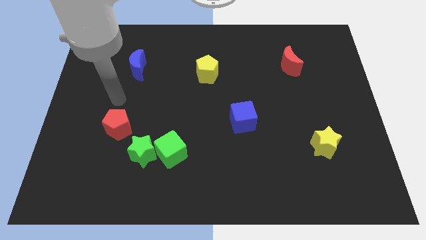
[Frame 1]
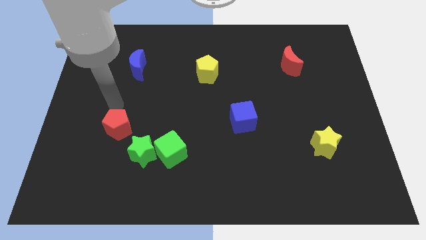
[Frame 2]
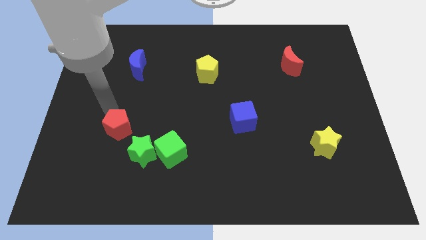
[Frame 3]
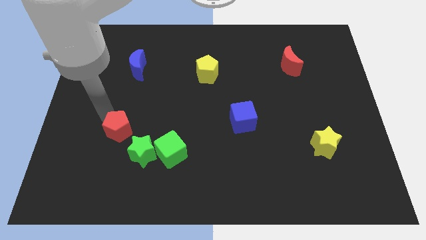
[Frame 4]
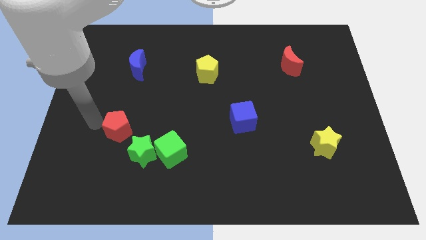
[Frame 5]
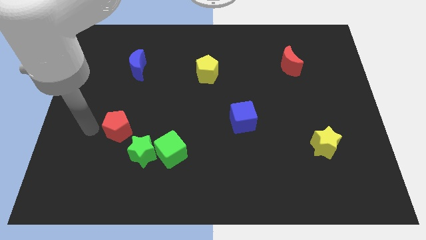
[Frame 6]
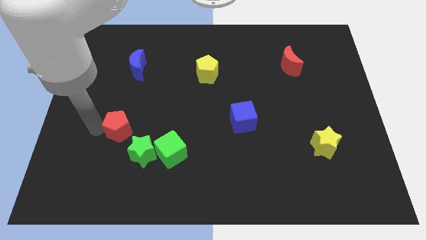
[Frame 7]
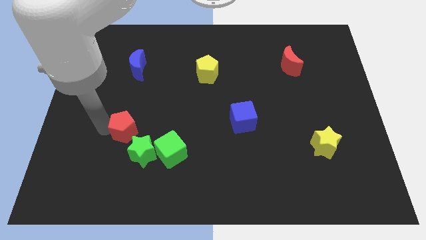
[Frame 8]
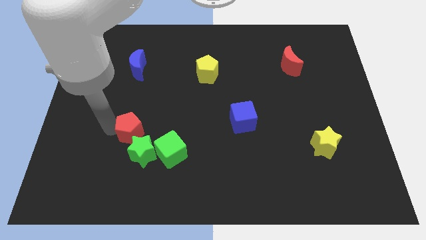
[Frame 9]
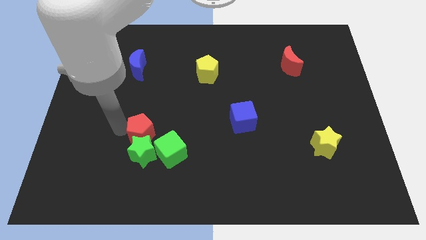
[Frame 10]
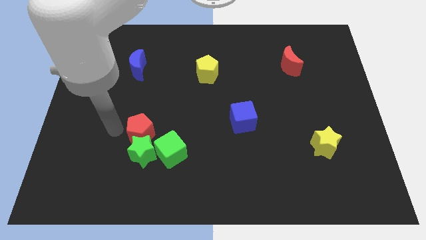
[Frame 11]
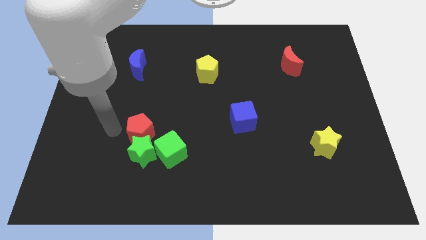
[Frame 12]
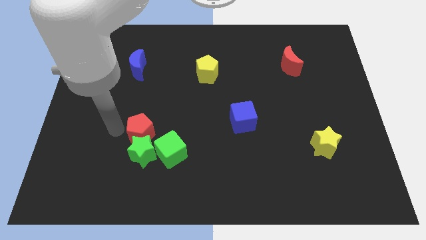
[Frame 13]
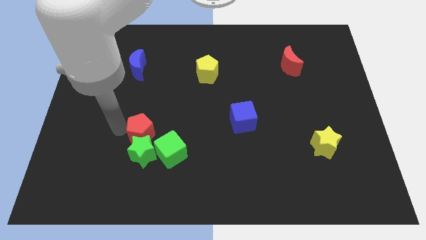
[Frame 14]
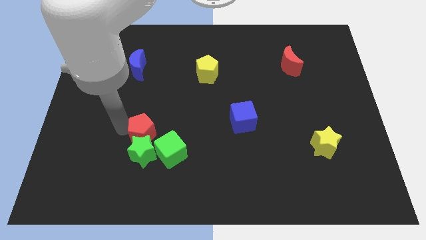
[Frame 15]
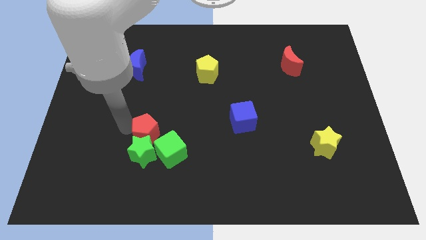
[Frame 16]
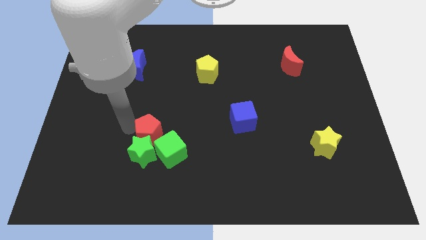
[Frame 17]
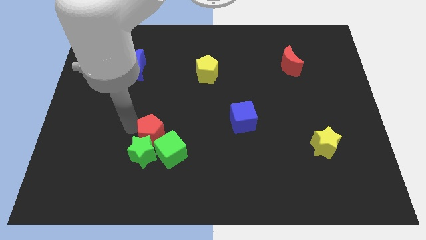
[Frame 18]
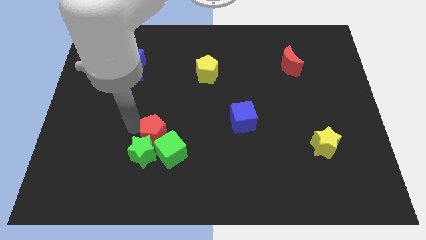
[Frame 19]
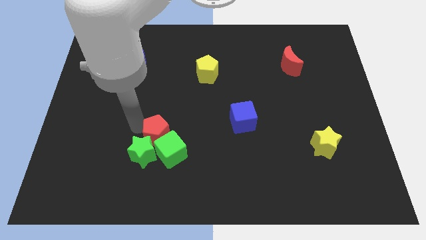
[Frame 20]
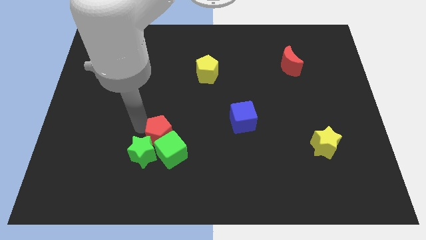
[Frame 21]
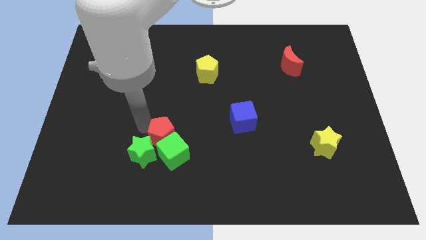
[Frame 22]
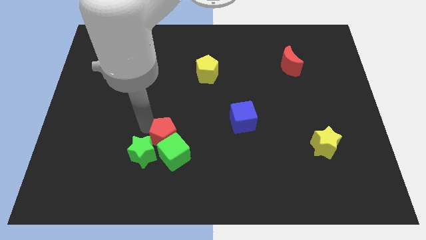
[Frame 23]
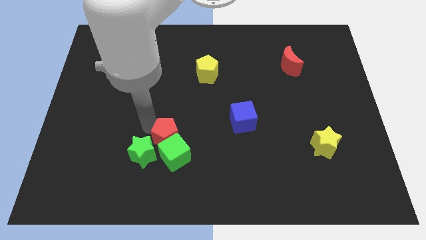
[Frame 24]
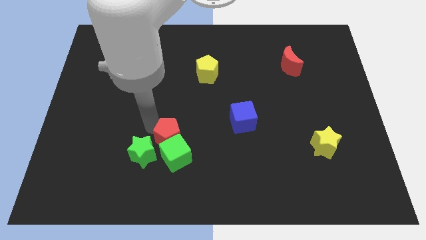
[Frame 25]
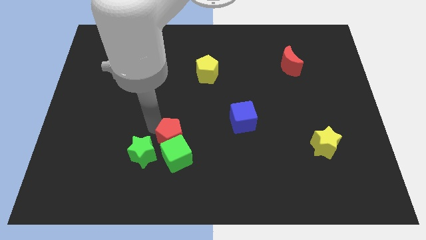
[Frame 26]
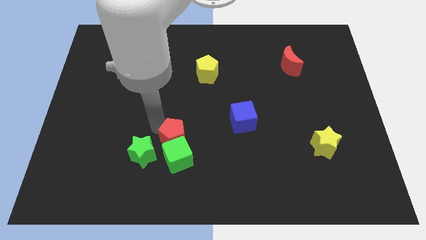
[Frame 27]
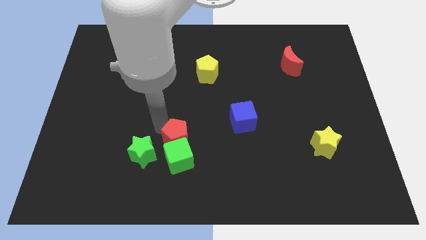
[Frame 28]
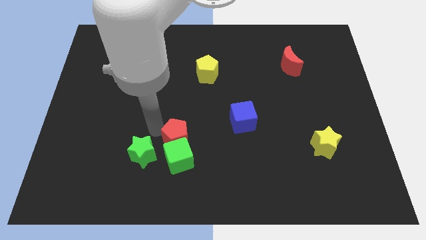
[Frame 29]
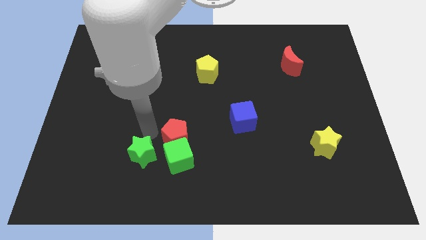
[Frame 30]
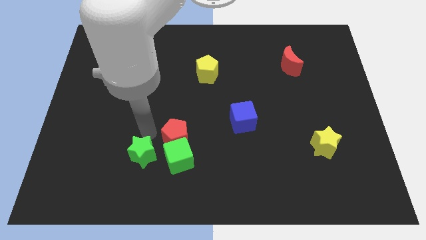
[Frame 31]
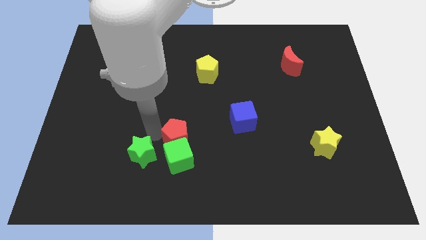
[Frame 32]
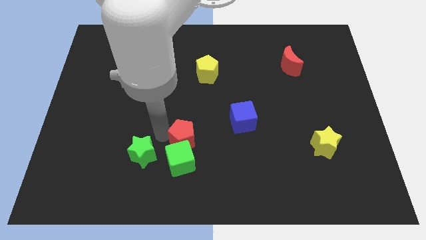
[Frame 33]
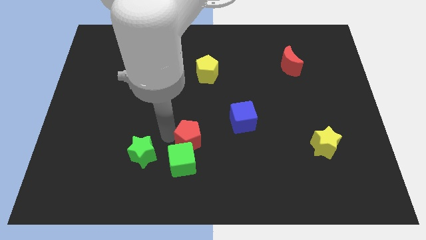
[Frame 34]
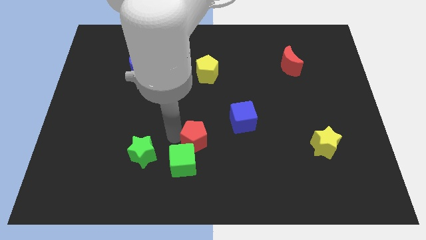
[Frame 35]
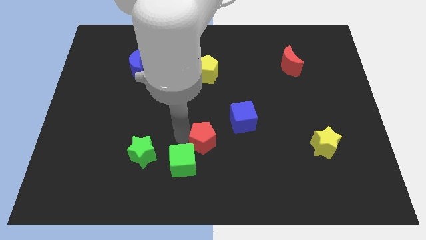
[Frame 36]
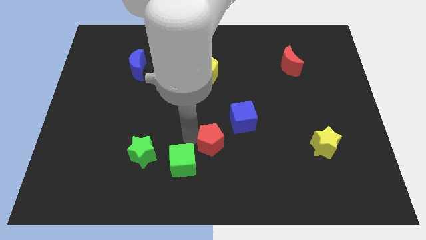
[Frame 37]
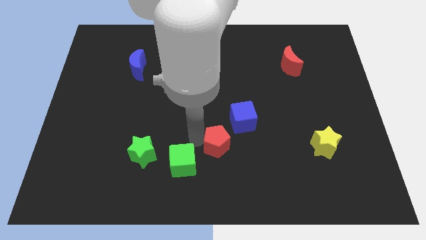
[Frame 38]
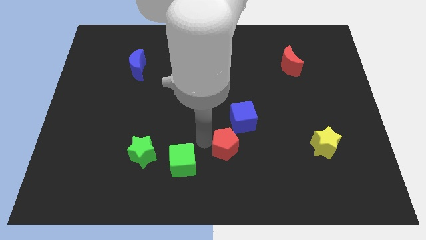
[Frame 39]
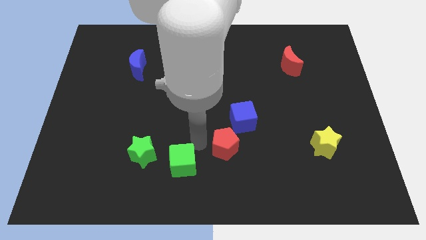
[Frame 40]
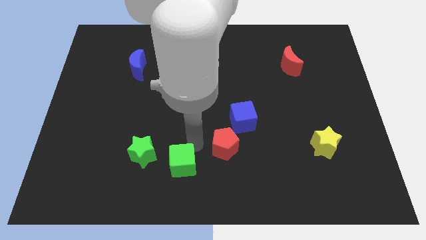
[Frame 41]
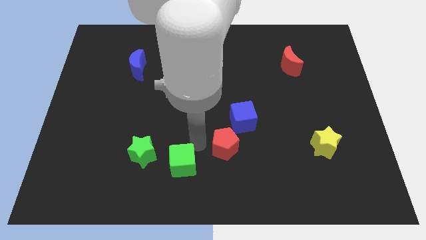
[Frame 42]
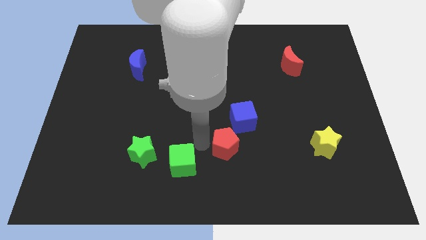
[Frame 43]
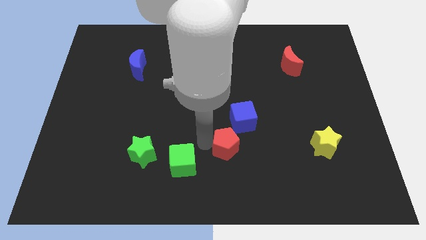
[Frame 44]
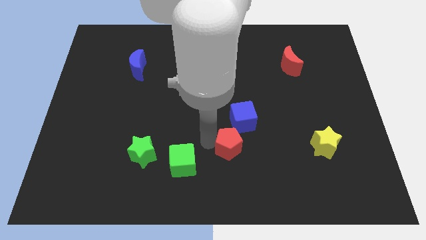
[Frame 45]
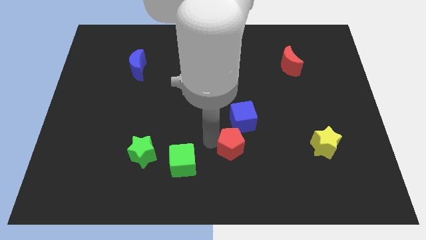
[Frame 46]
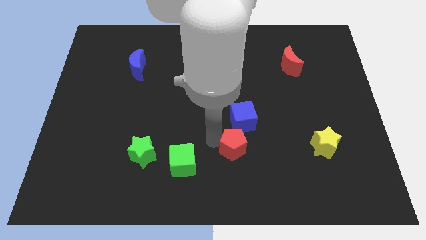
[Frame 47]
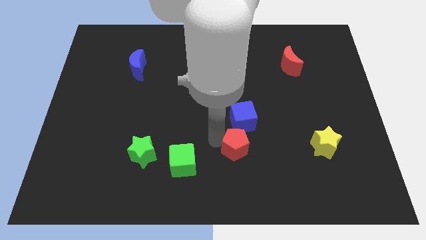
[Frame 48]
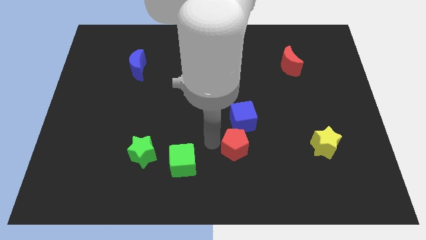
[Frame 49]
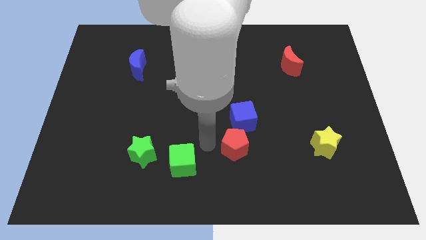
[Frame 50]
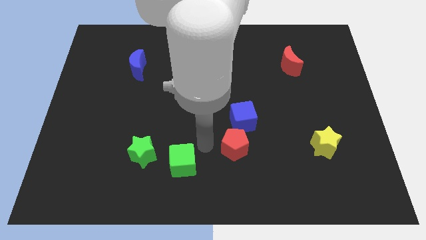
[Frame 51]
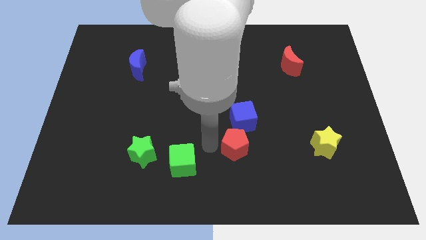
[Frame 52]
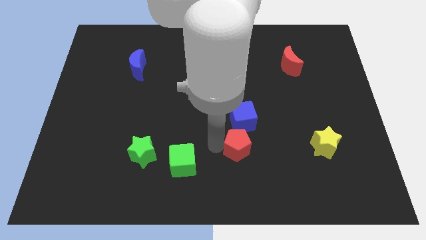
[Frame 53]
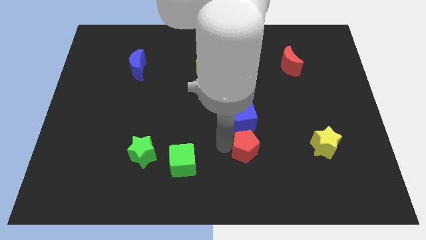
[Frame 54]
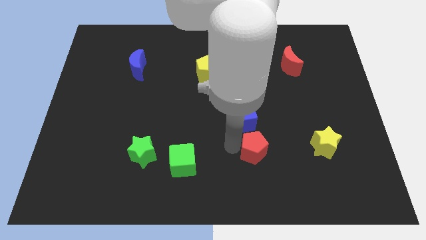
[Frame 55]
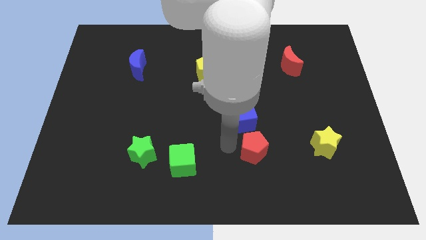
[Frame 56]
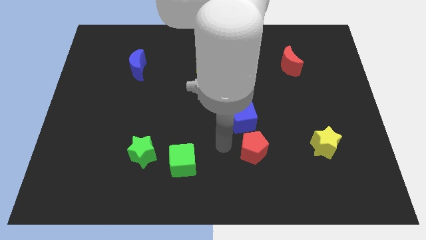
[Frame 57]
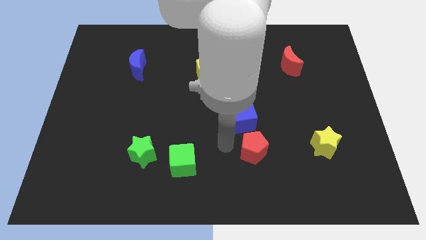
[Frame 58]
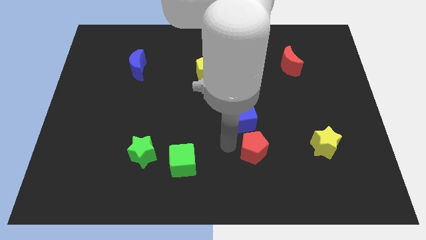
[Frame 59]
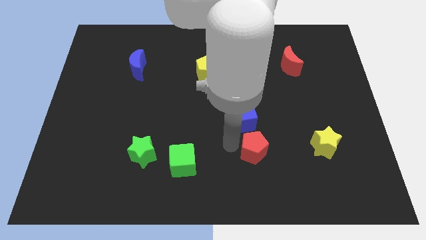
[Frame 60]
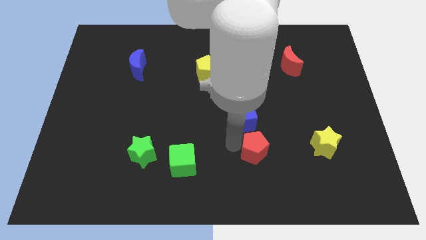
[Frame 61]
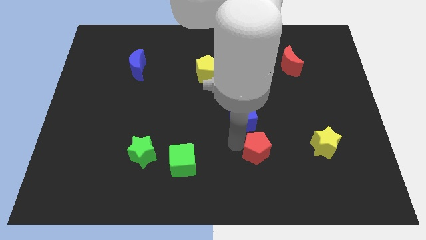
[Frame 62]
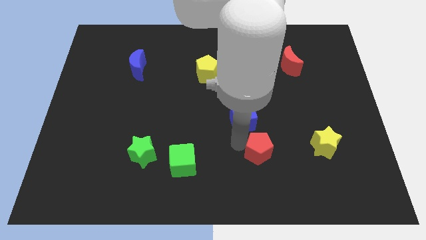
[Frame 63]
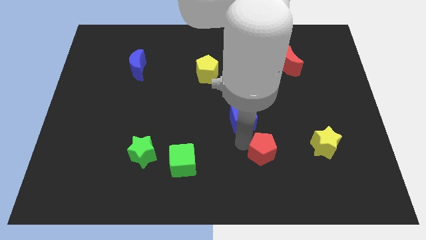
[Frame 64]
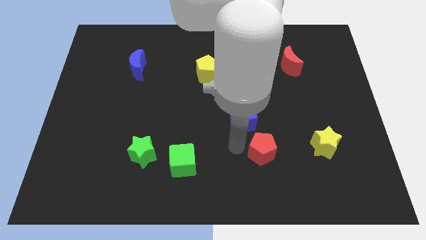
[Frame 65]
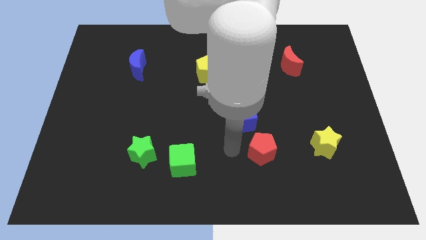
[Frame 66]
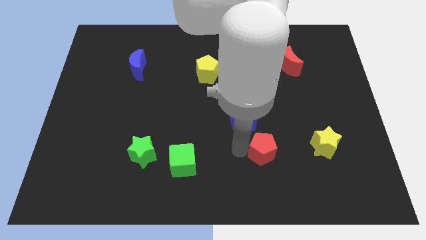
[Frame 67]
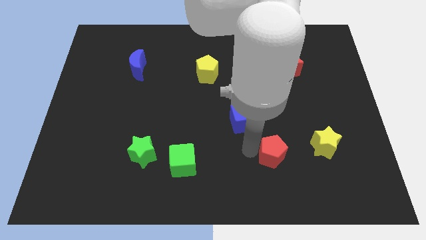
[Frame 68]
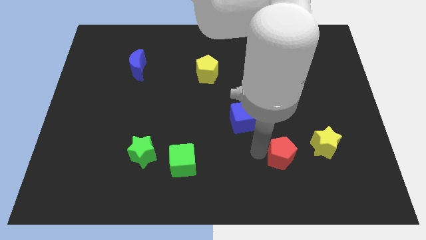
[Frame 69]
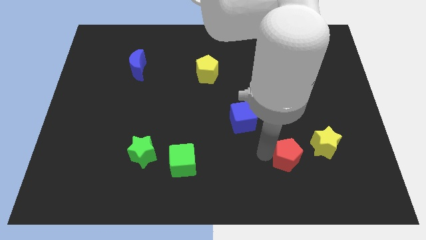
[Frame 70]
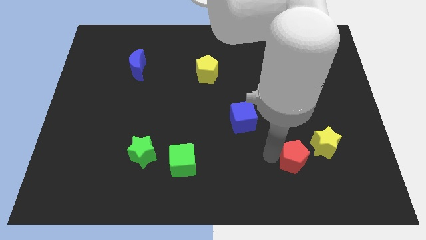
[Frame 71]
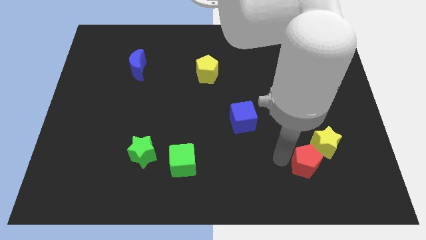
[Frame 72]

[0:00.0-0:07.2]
put the red pentagon next to the yellow star

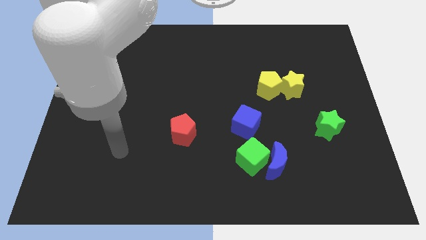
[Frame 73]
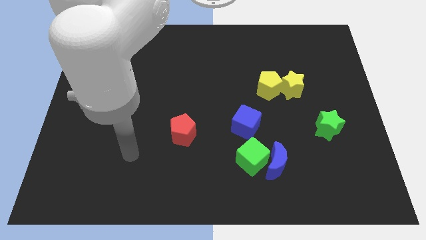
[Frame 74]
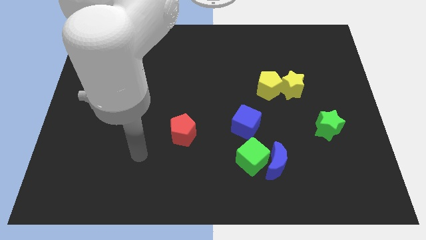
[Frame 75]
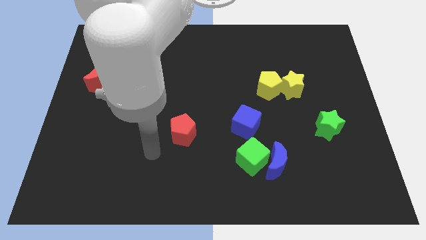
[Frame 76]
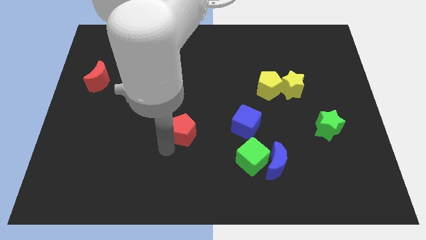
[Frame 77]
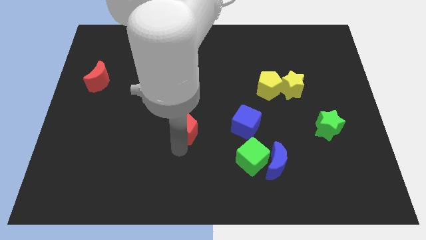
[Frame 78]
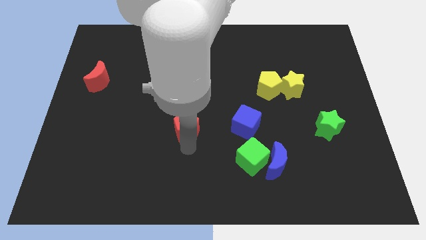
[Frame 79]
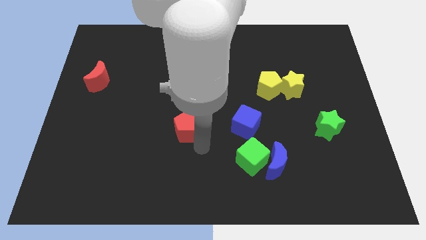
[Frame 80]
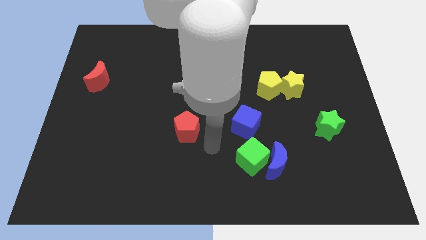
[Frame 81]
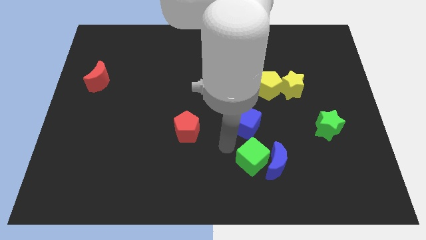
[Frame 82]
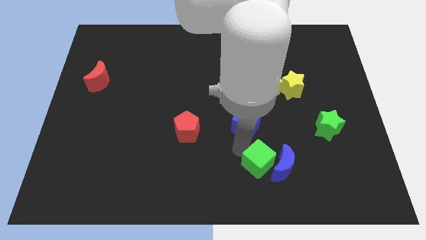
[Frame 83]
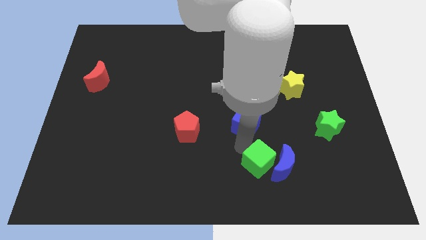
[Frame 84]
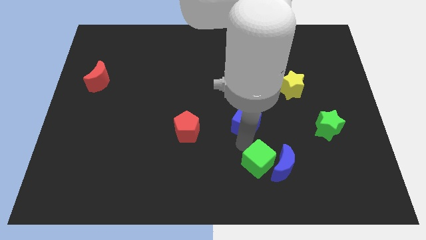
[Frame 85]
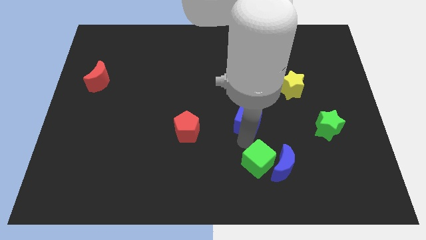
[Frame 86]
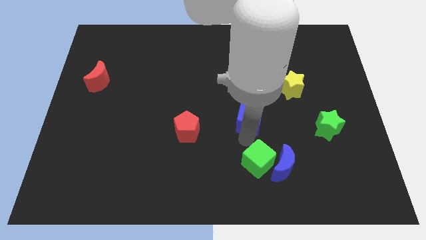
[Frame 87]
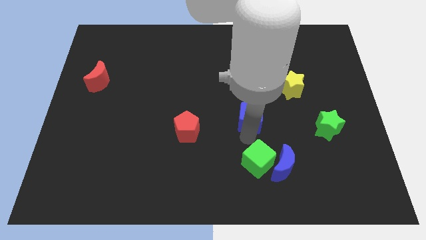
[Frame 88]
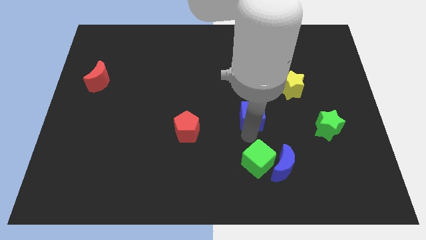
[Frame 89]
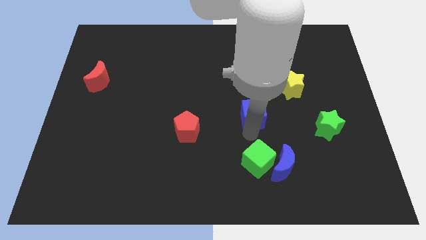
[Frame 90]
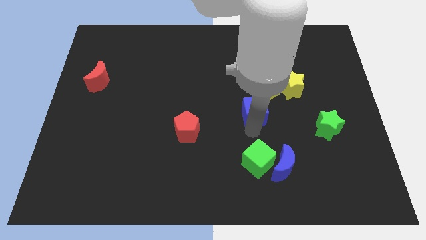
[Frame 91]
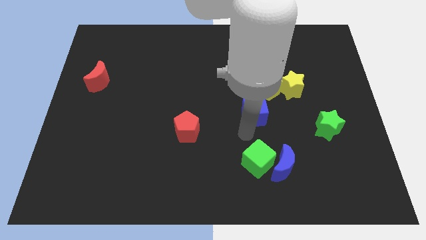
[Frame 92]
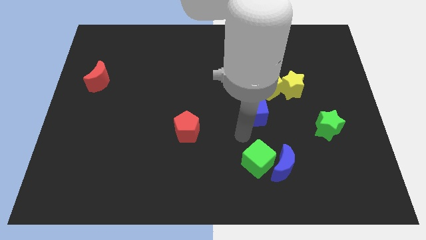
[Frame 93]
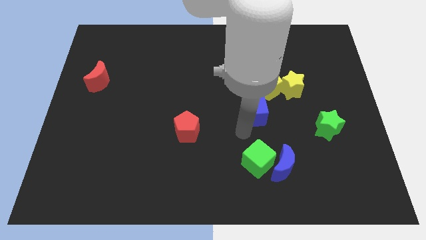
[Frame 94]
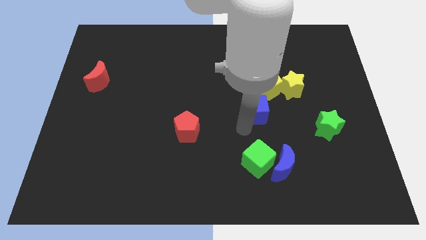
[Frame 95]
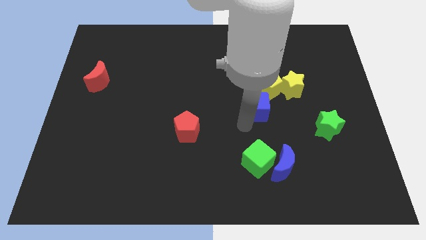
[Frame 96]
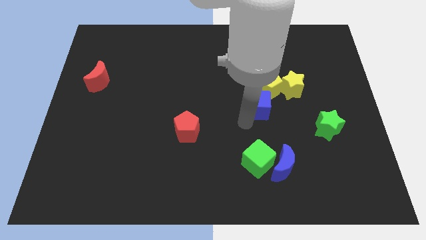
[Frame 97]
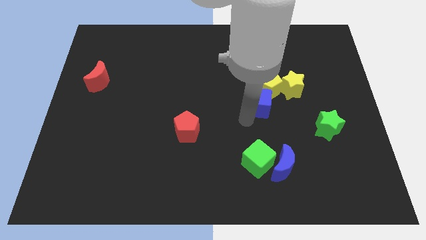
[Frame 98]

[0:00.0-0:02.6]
slide the blue cube towards the yellow pentagon
